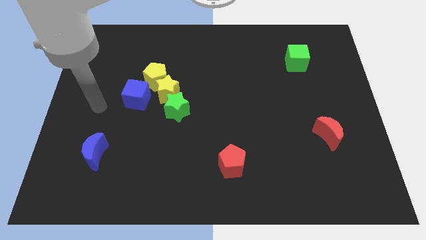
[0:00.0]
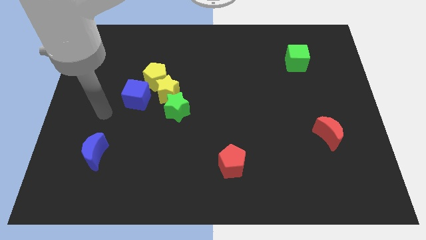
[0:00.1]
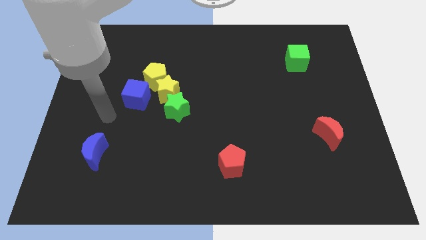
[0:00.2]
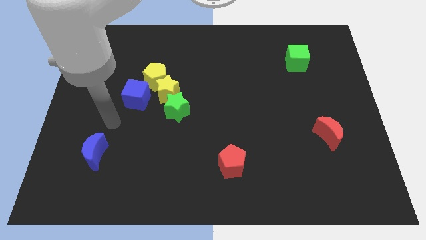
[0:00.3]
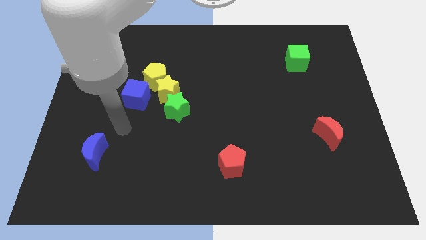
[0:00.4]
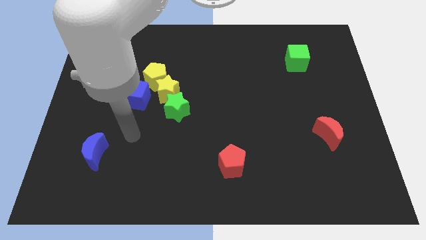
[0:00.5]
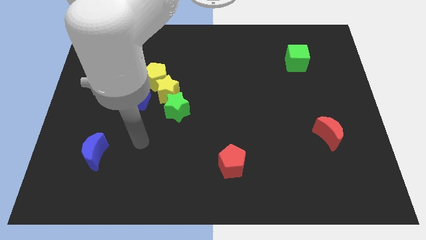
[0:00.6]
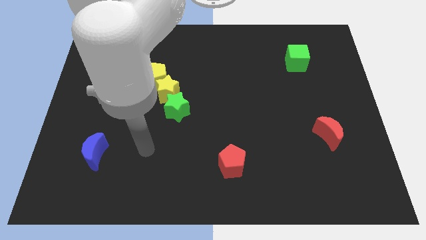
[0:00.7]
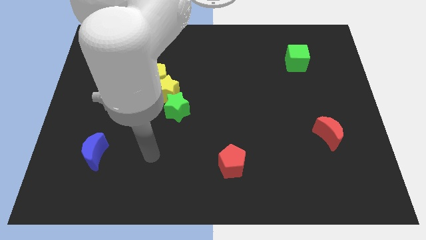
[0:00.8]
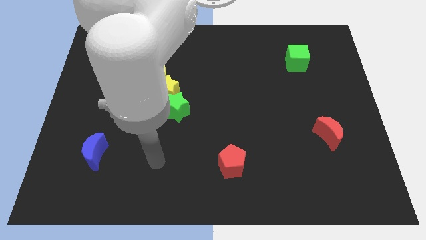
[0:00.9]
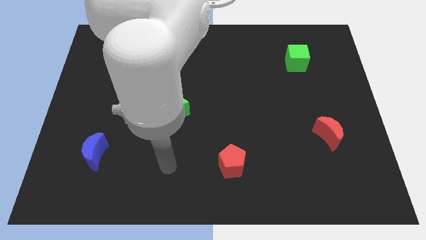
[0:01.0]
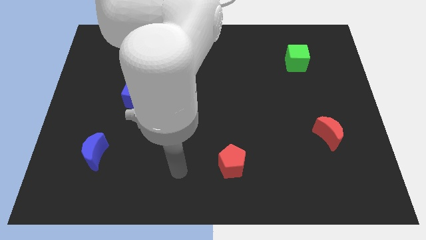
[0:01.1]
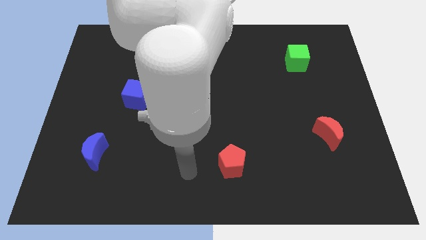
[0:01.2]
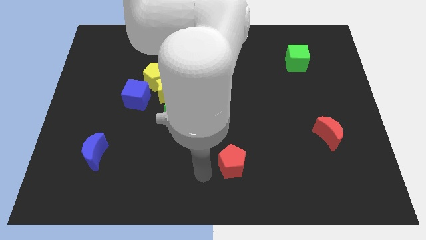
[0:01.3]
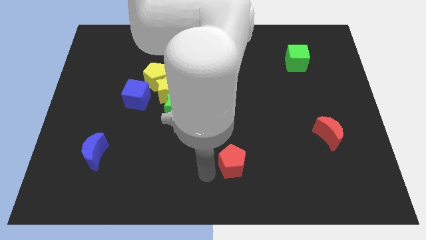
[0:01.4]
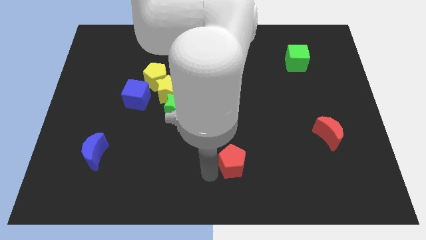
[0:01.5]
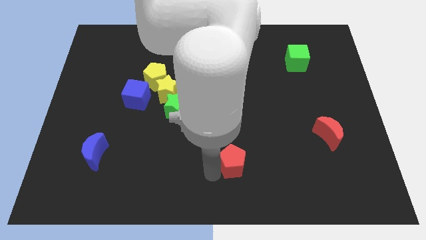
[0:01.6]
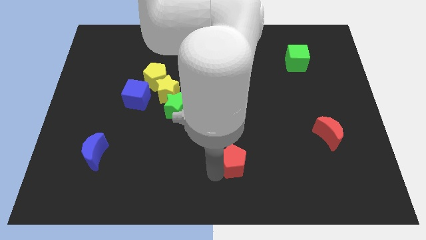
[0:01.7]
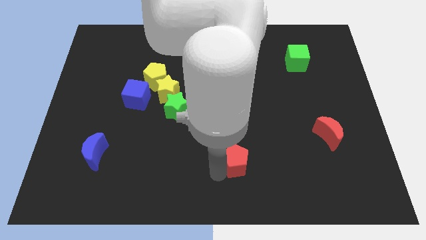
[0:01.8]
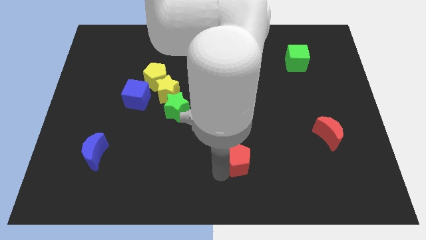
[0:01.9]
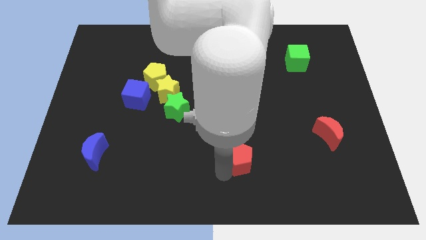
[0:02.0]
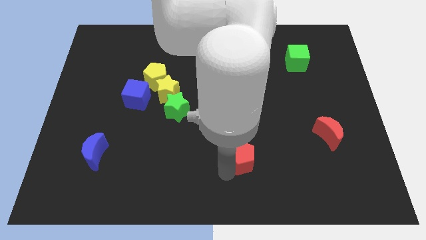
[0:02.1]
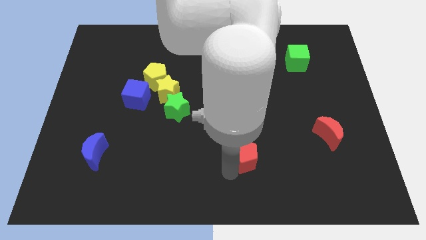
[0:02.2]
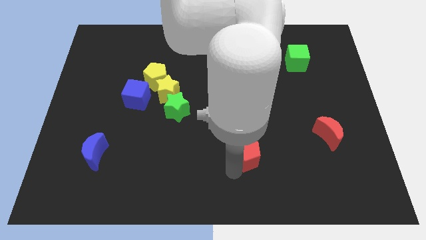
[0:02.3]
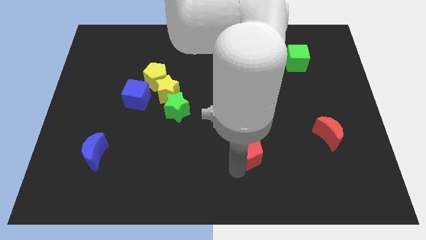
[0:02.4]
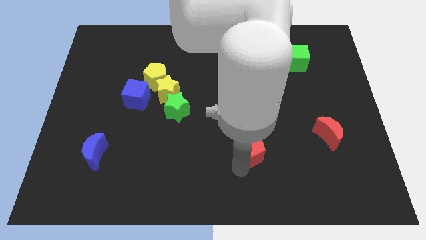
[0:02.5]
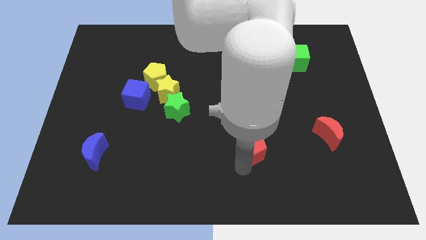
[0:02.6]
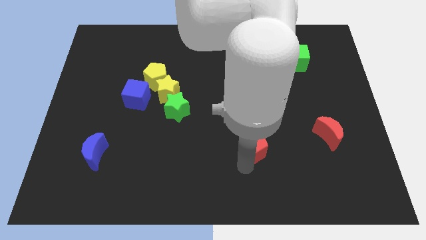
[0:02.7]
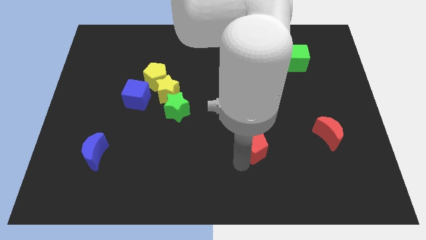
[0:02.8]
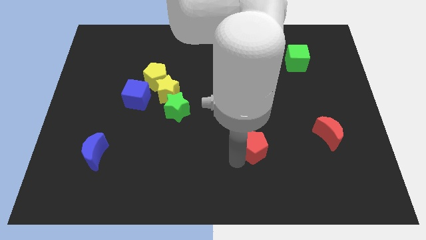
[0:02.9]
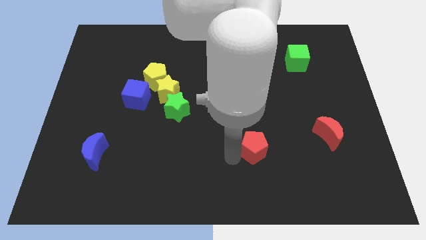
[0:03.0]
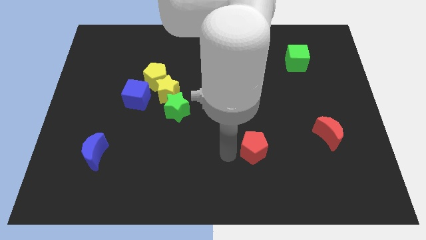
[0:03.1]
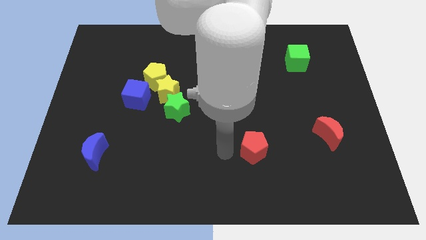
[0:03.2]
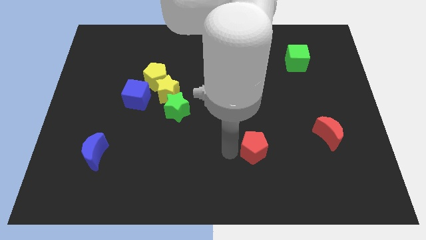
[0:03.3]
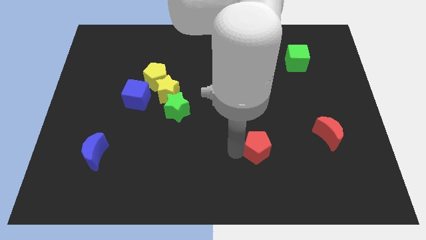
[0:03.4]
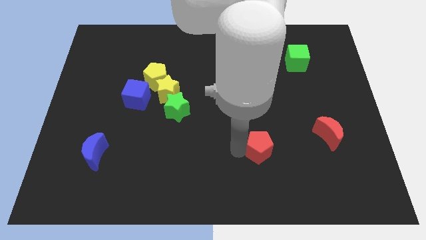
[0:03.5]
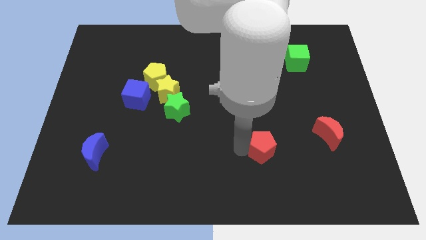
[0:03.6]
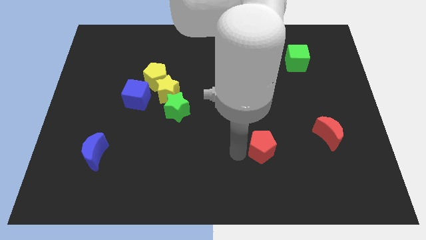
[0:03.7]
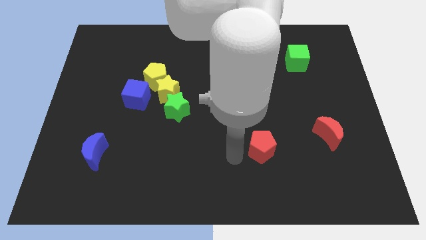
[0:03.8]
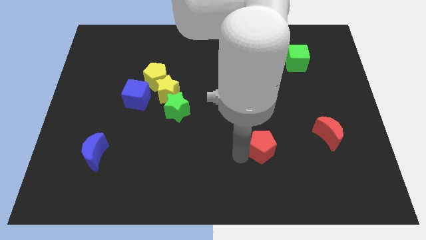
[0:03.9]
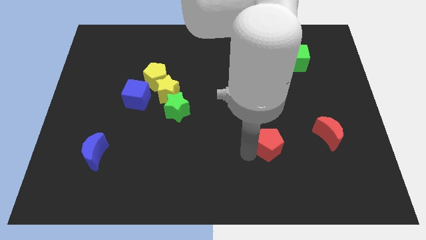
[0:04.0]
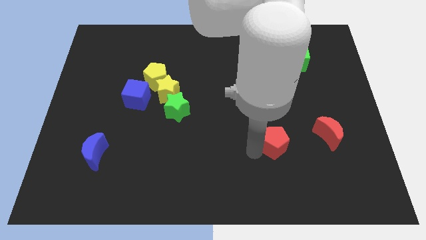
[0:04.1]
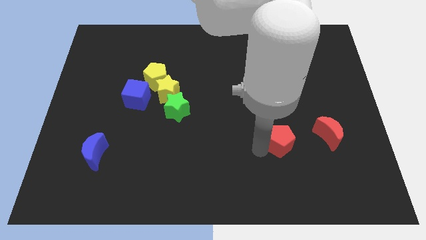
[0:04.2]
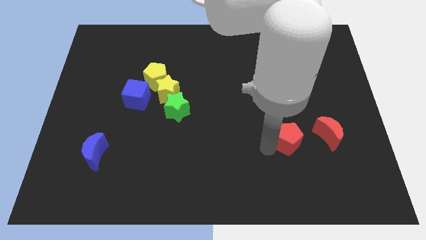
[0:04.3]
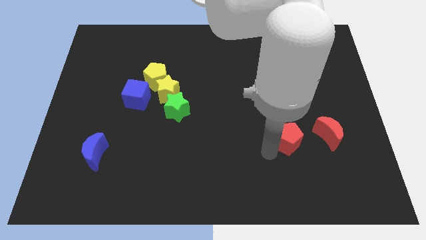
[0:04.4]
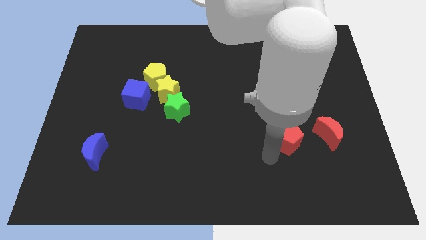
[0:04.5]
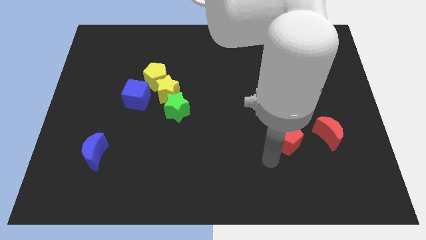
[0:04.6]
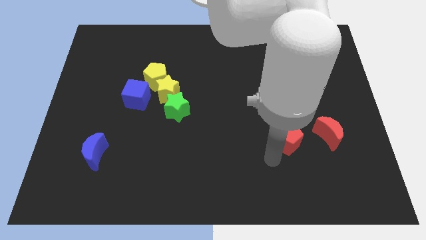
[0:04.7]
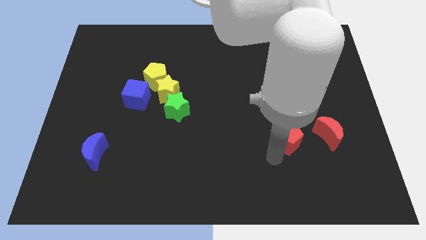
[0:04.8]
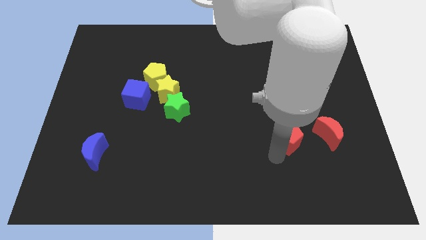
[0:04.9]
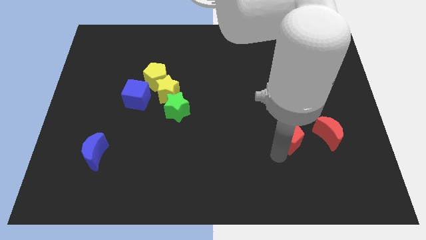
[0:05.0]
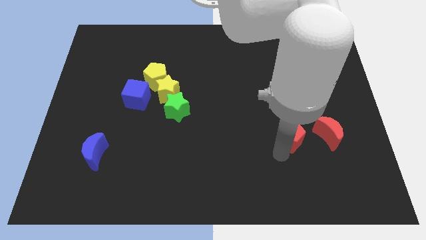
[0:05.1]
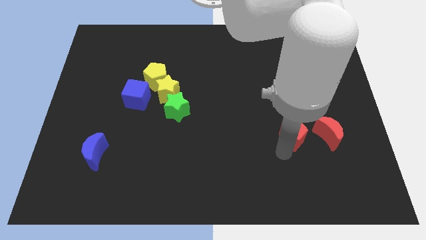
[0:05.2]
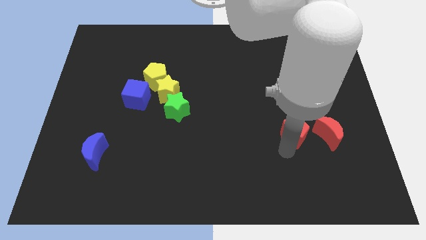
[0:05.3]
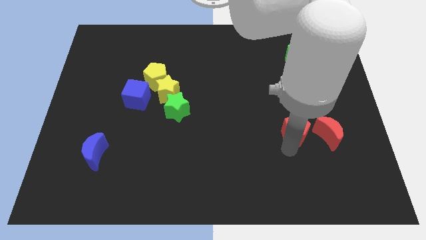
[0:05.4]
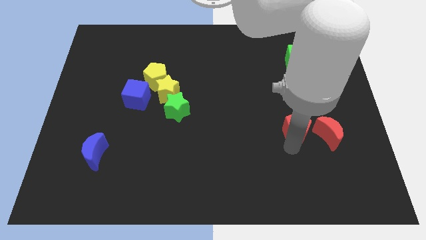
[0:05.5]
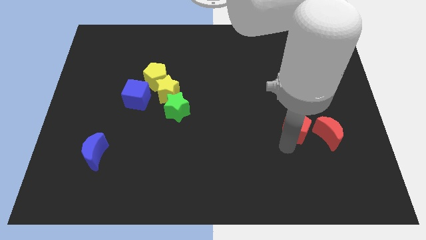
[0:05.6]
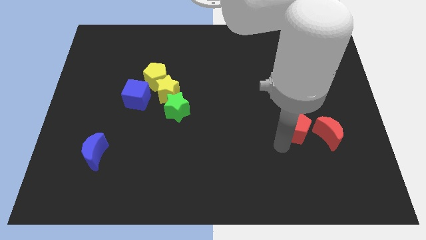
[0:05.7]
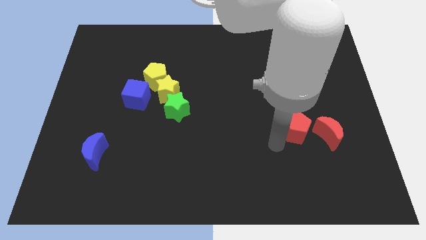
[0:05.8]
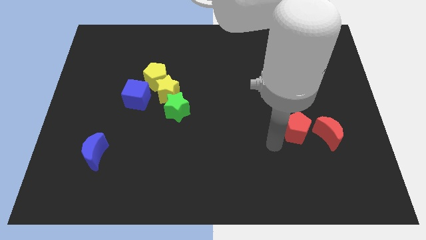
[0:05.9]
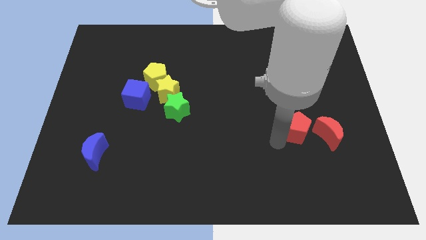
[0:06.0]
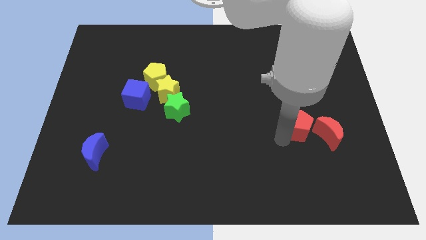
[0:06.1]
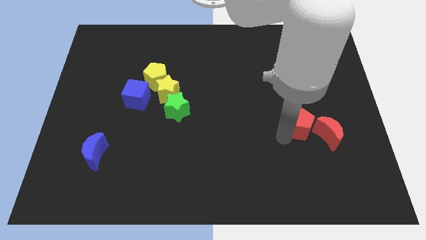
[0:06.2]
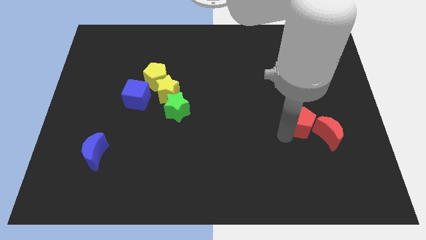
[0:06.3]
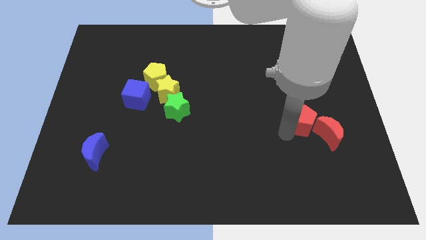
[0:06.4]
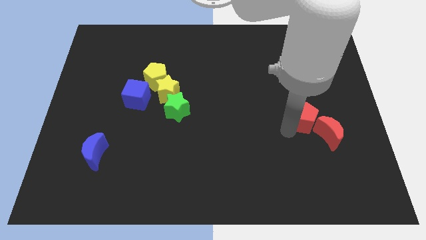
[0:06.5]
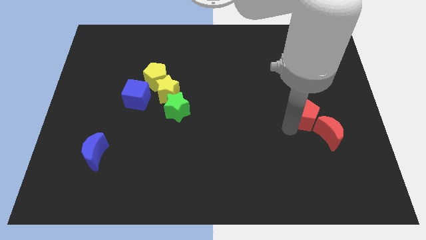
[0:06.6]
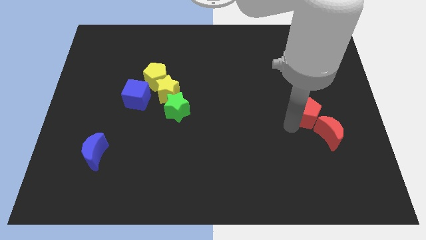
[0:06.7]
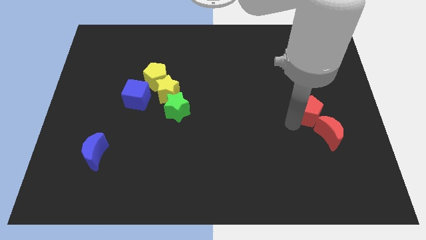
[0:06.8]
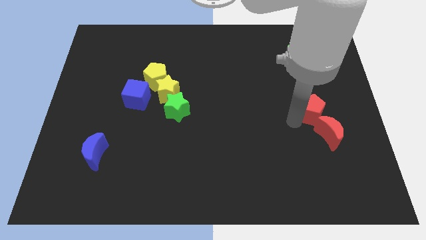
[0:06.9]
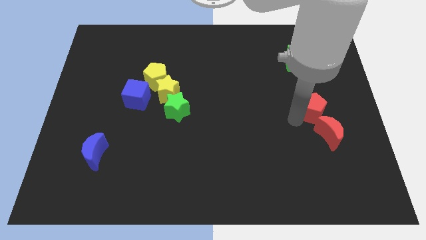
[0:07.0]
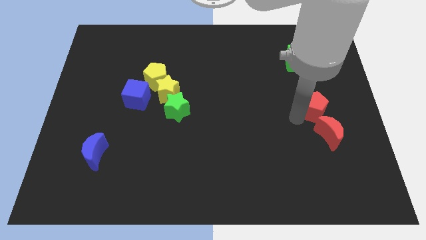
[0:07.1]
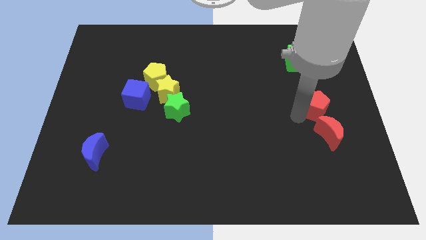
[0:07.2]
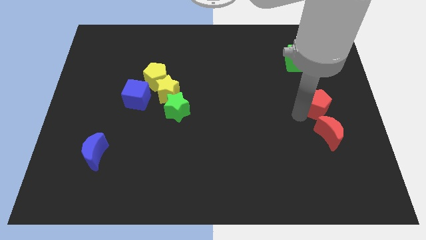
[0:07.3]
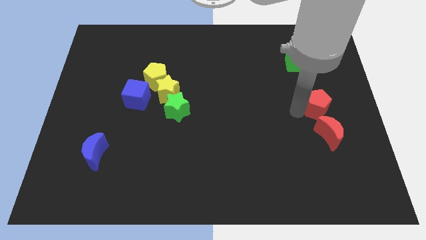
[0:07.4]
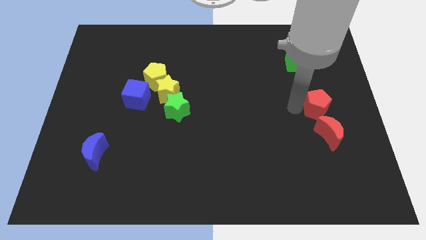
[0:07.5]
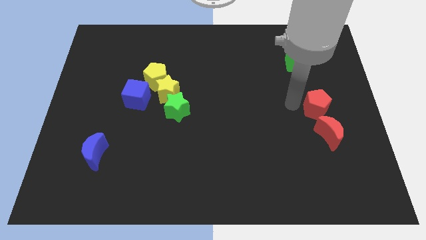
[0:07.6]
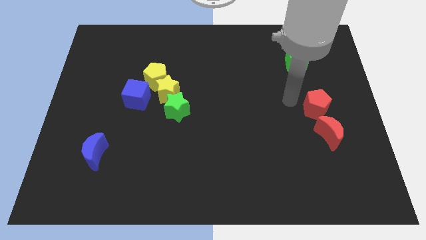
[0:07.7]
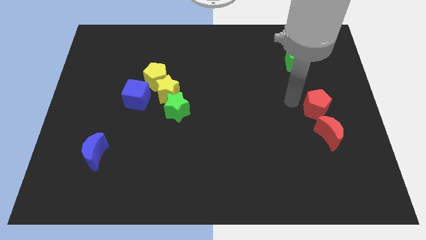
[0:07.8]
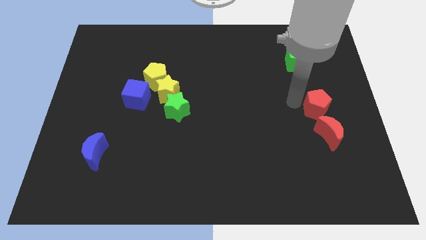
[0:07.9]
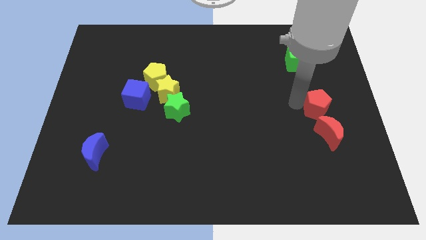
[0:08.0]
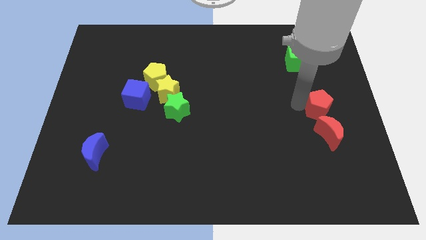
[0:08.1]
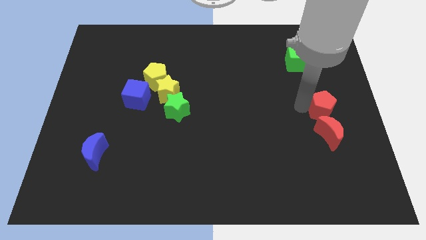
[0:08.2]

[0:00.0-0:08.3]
slide the red pentagon to the center right
